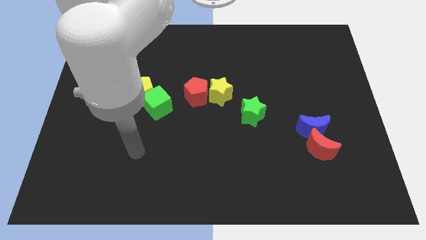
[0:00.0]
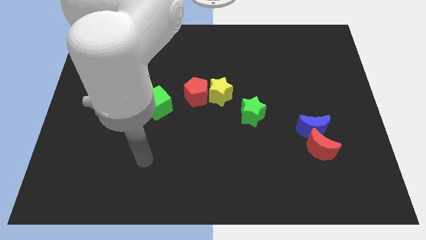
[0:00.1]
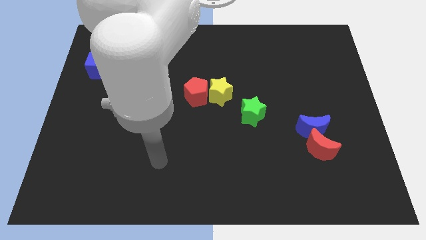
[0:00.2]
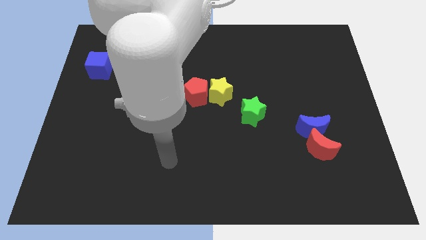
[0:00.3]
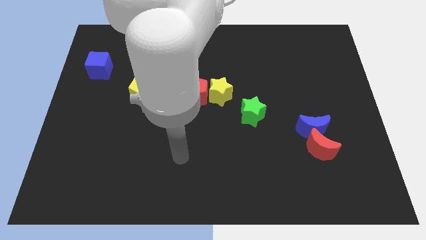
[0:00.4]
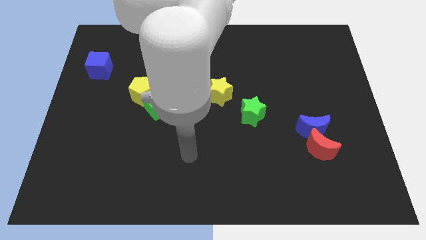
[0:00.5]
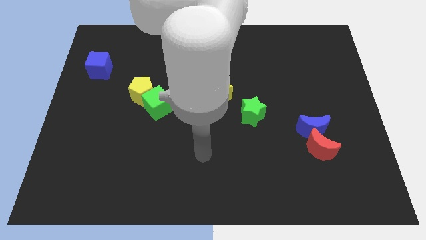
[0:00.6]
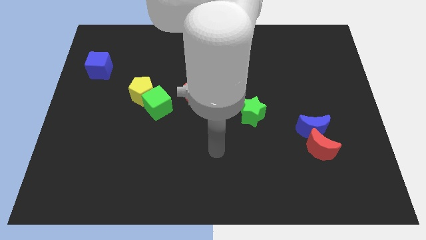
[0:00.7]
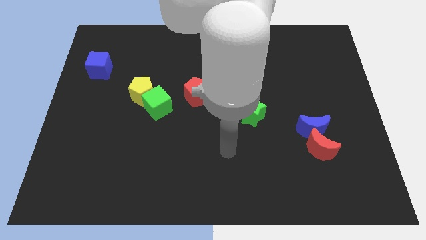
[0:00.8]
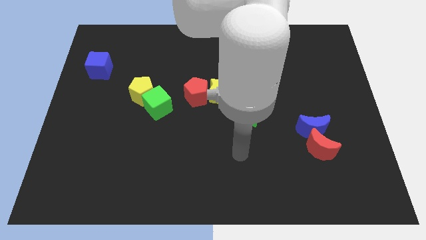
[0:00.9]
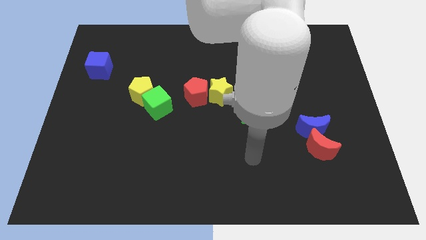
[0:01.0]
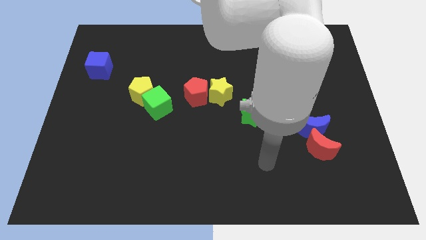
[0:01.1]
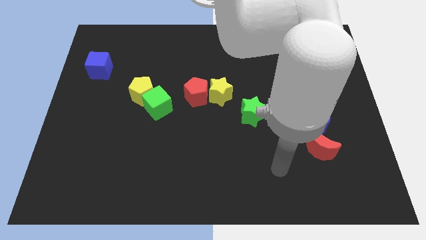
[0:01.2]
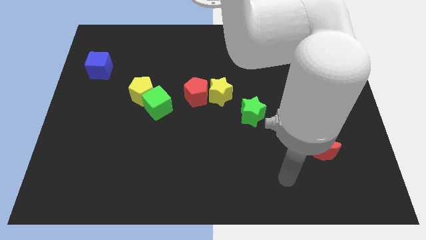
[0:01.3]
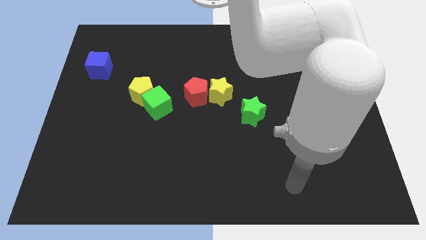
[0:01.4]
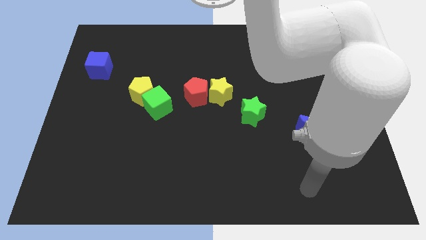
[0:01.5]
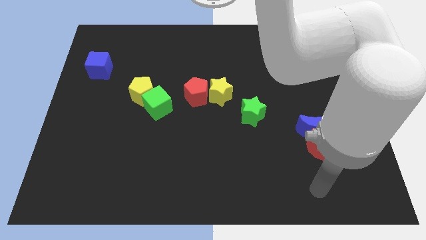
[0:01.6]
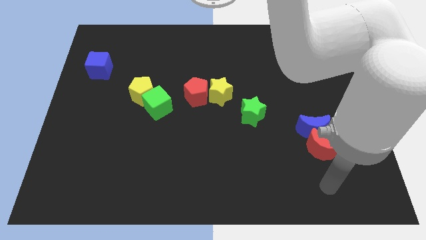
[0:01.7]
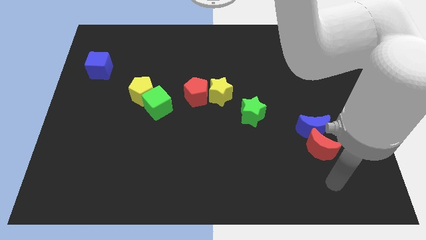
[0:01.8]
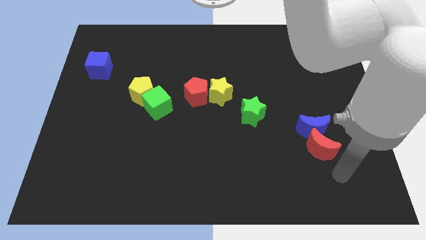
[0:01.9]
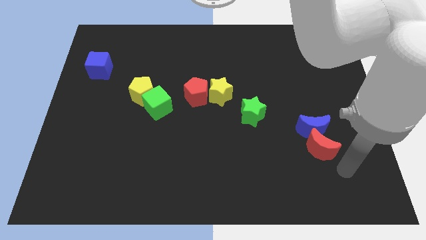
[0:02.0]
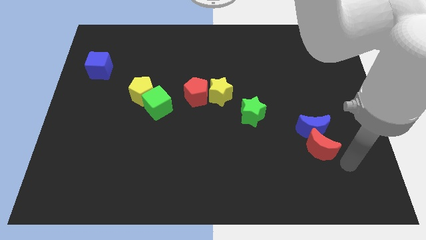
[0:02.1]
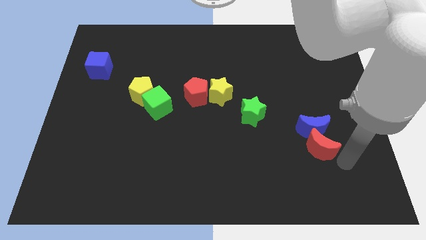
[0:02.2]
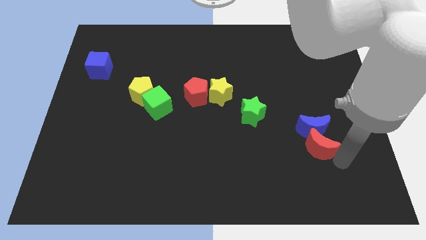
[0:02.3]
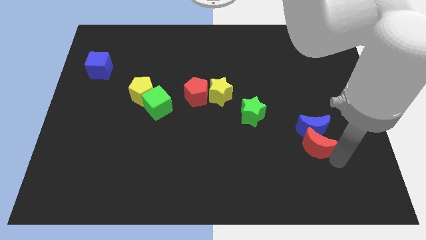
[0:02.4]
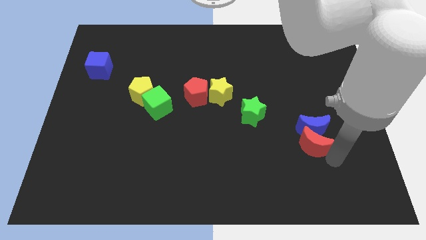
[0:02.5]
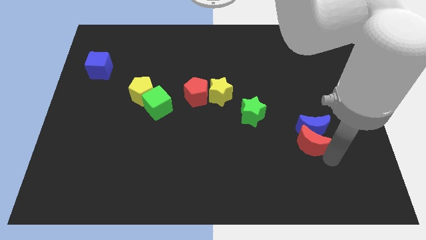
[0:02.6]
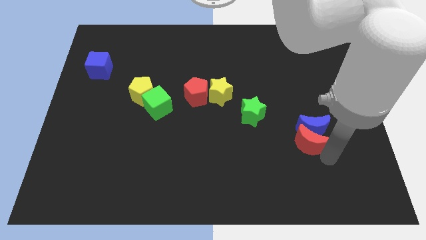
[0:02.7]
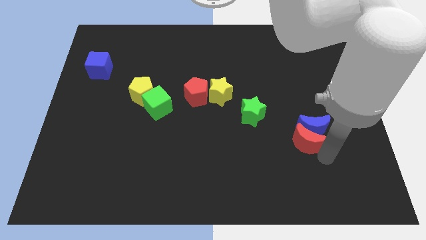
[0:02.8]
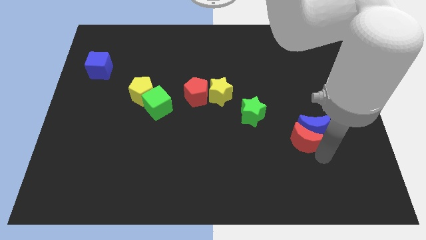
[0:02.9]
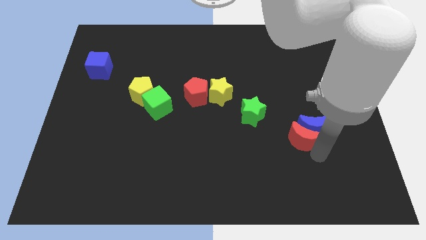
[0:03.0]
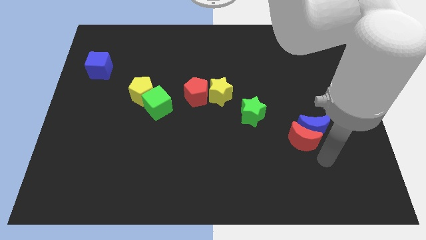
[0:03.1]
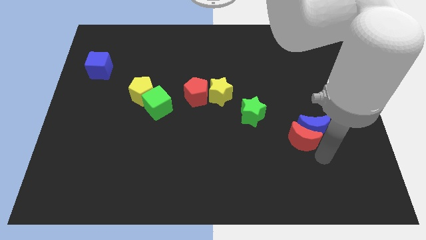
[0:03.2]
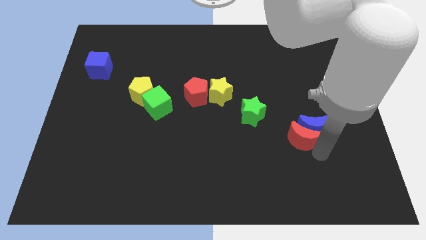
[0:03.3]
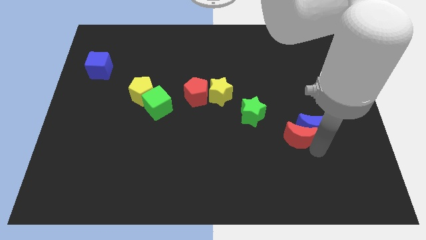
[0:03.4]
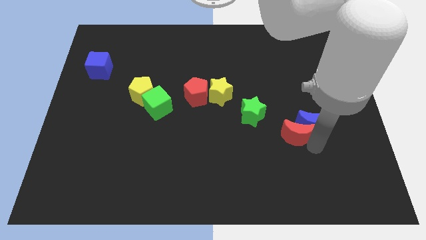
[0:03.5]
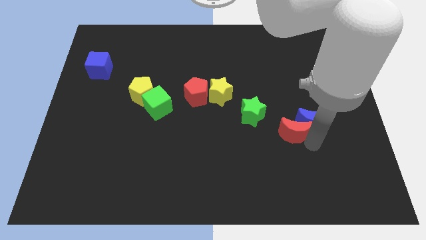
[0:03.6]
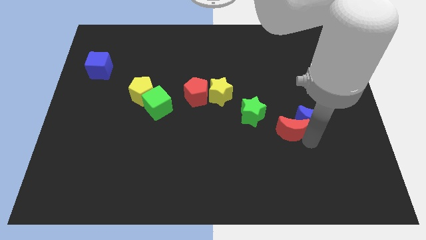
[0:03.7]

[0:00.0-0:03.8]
push the red moon slightly diagonally up and to the left

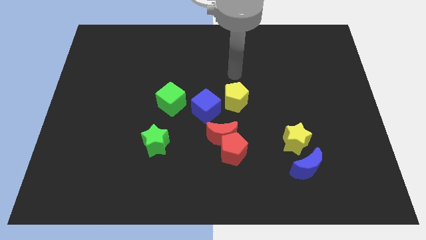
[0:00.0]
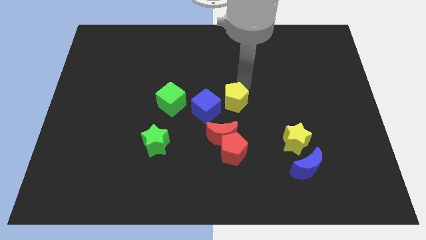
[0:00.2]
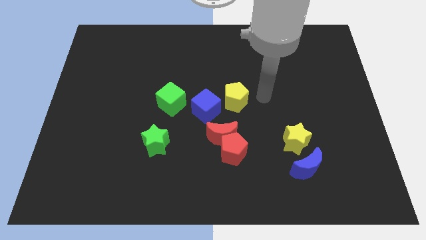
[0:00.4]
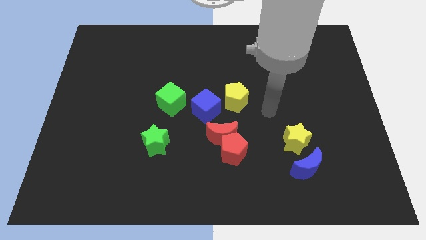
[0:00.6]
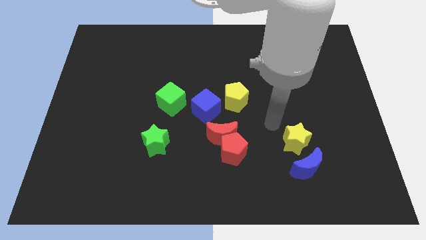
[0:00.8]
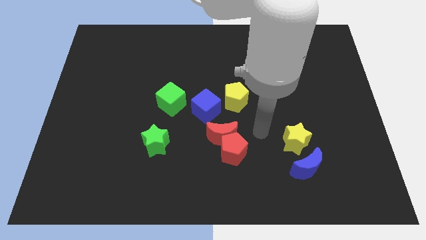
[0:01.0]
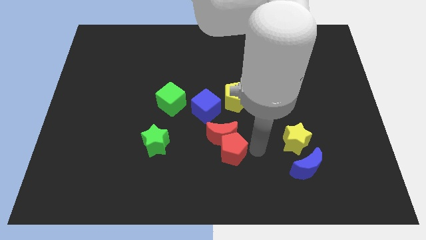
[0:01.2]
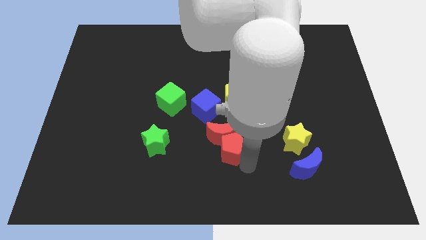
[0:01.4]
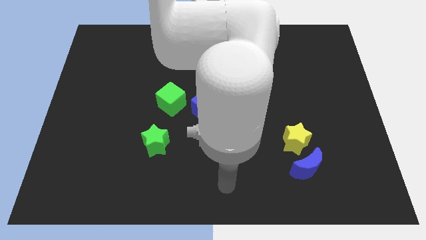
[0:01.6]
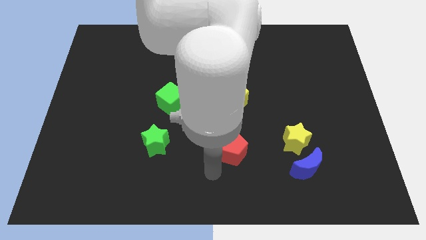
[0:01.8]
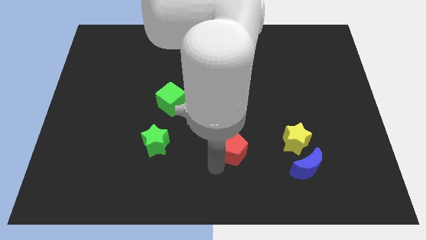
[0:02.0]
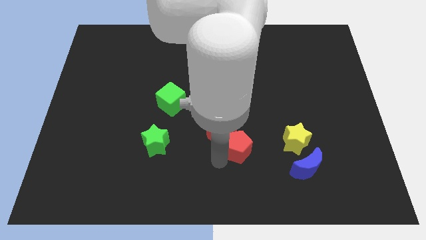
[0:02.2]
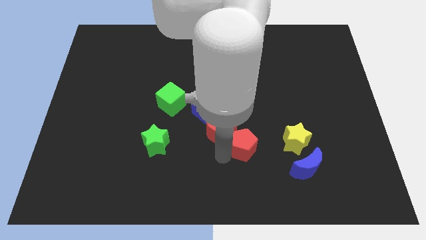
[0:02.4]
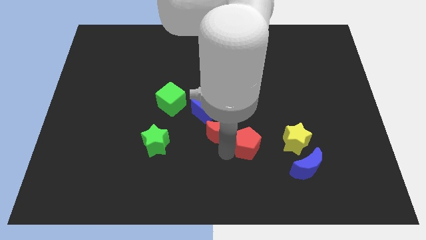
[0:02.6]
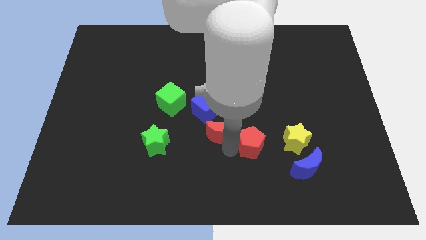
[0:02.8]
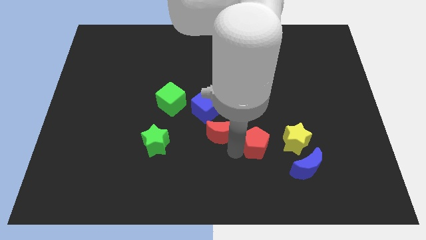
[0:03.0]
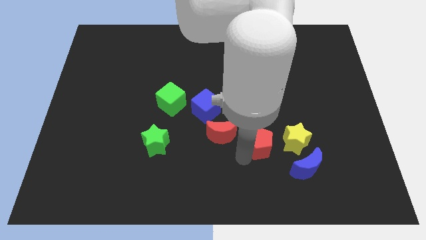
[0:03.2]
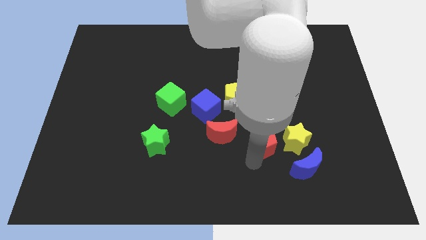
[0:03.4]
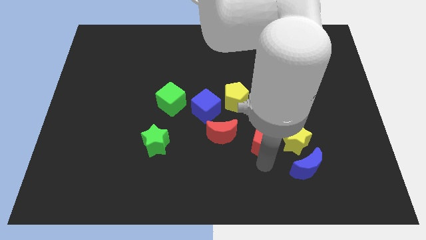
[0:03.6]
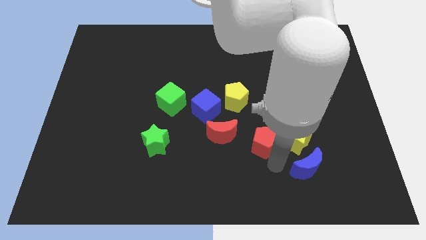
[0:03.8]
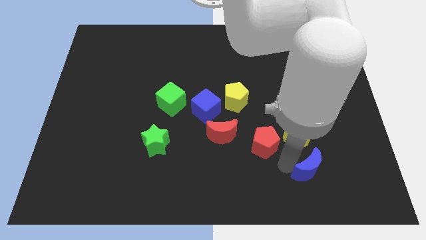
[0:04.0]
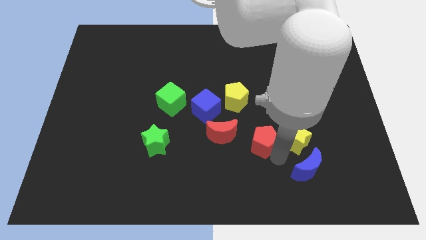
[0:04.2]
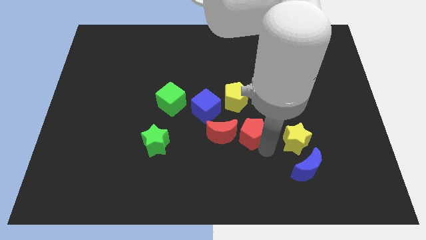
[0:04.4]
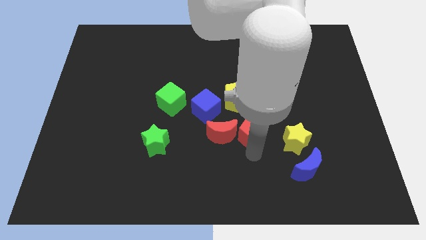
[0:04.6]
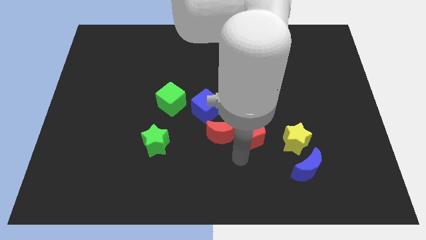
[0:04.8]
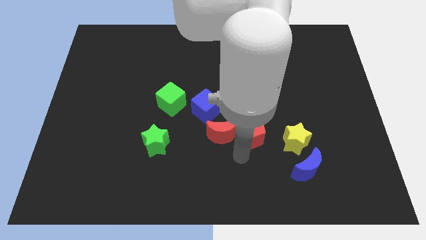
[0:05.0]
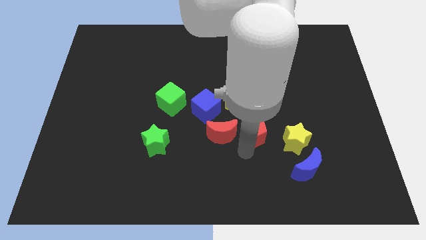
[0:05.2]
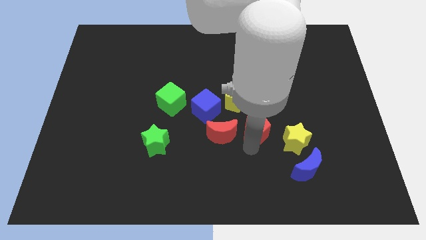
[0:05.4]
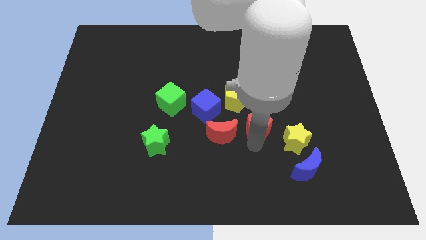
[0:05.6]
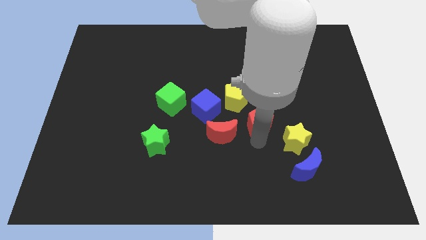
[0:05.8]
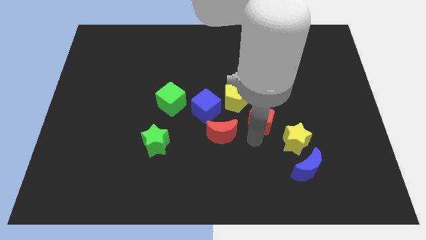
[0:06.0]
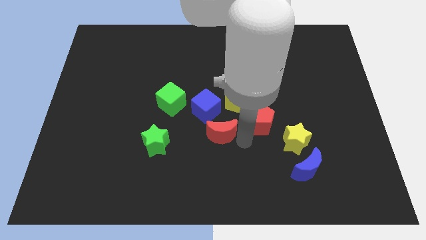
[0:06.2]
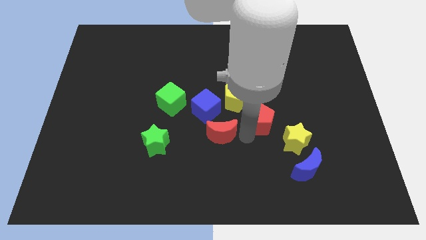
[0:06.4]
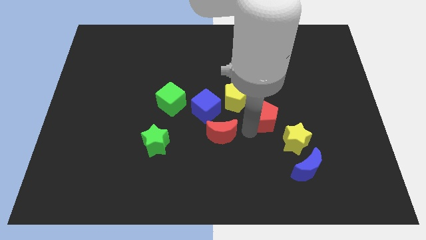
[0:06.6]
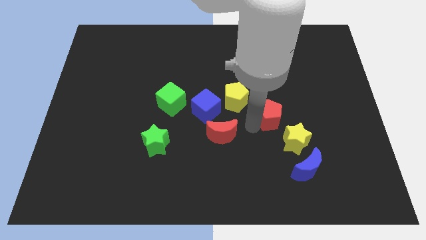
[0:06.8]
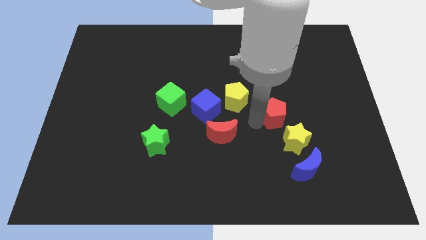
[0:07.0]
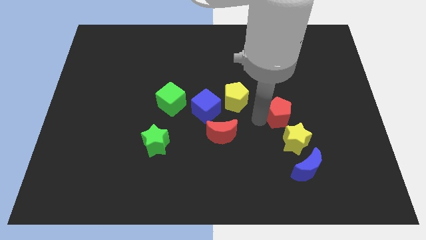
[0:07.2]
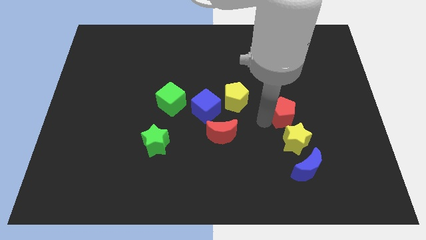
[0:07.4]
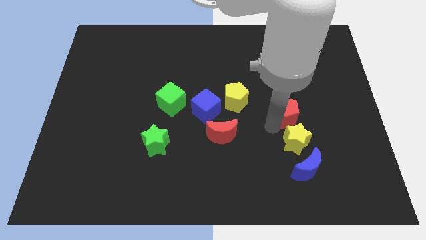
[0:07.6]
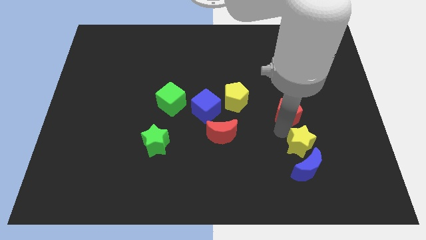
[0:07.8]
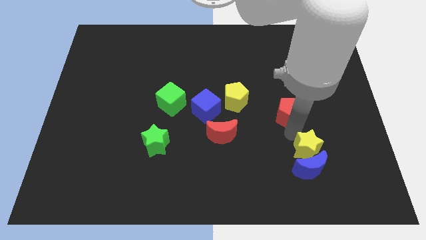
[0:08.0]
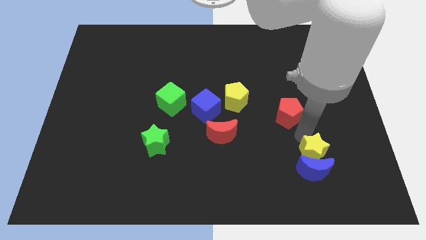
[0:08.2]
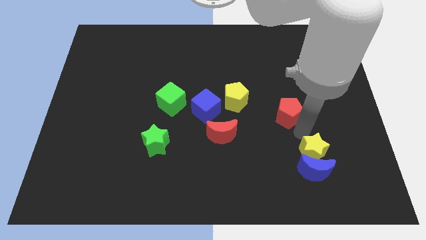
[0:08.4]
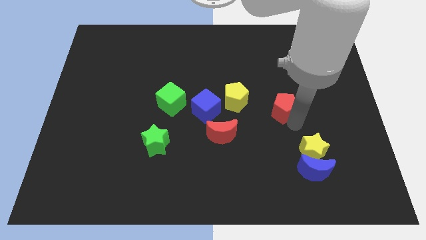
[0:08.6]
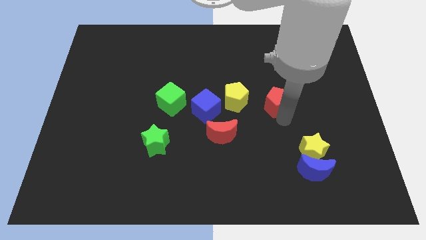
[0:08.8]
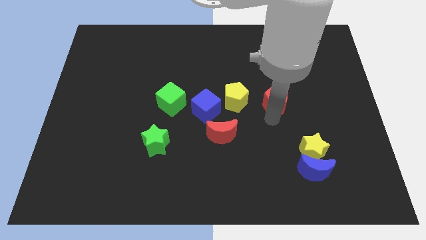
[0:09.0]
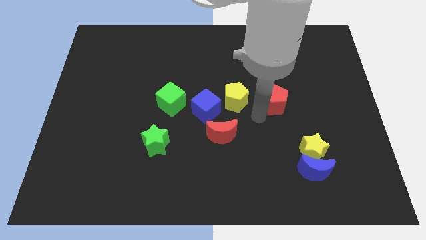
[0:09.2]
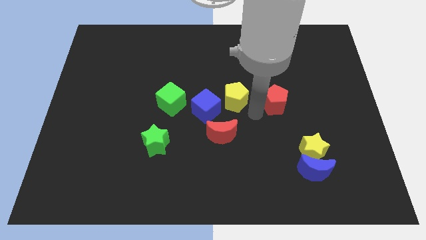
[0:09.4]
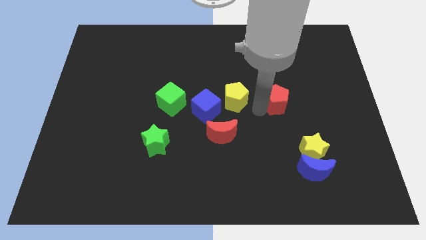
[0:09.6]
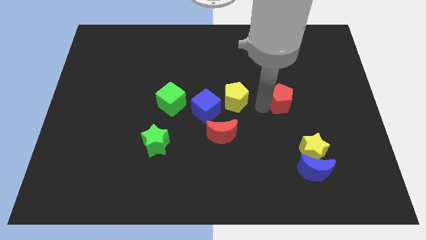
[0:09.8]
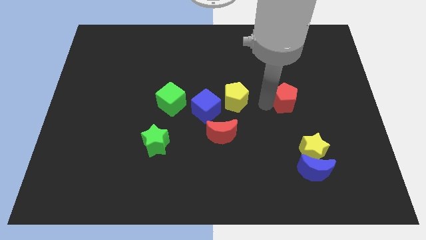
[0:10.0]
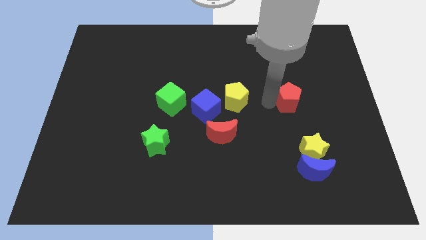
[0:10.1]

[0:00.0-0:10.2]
slide the red pentagon upwards and right
